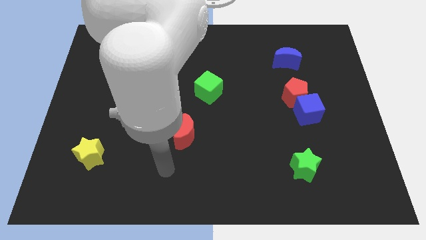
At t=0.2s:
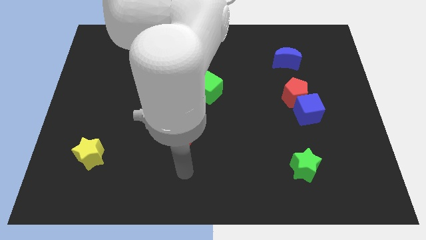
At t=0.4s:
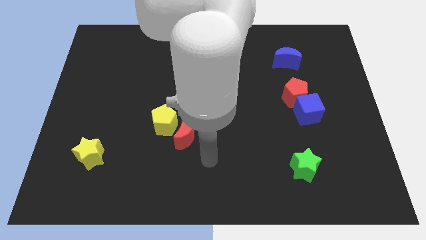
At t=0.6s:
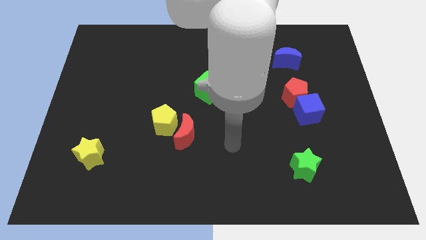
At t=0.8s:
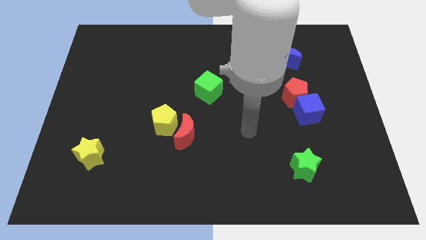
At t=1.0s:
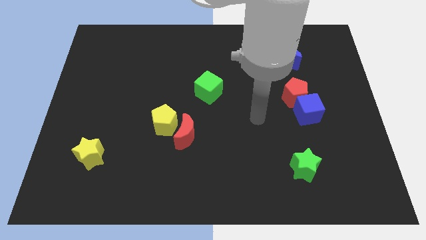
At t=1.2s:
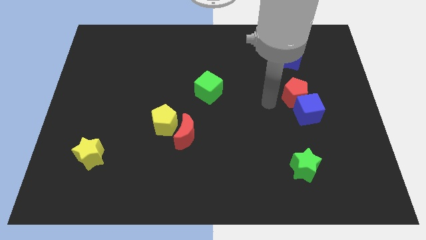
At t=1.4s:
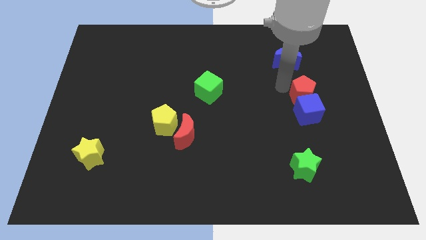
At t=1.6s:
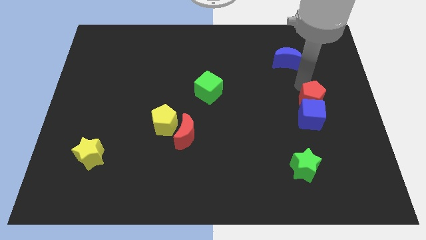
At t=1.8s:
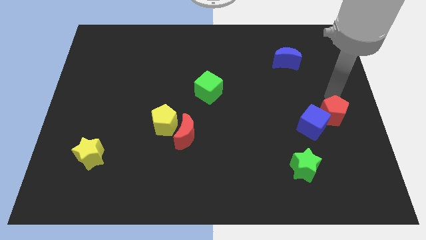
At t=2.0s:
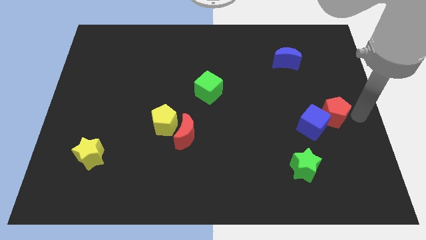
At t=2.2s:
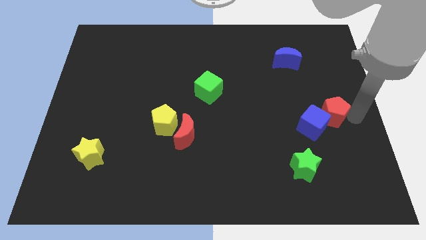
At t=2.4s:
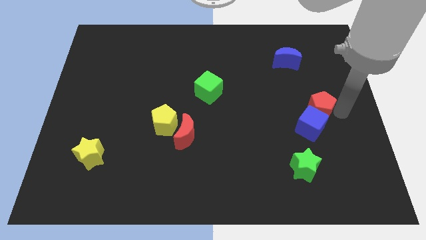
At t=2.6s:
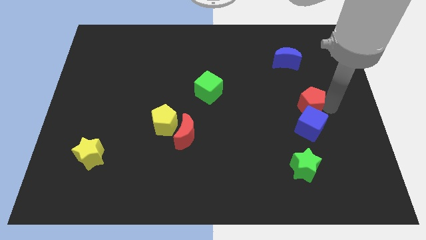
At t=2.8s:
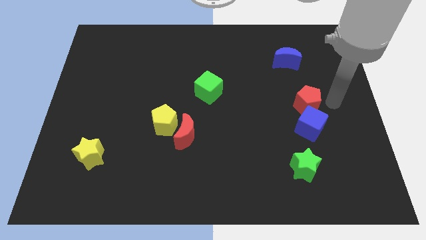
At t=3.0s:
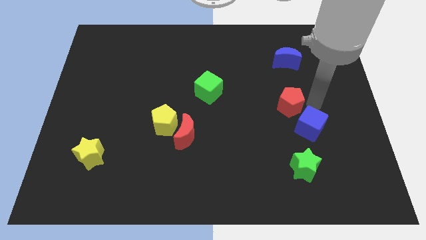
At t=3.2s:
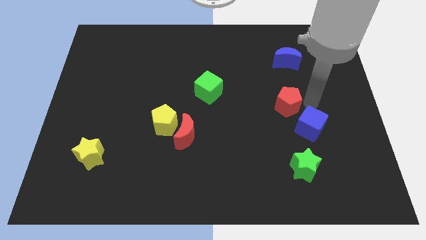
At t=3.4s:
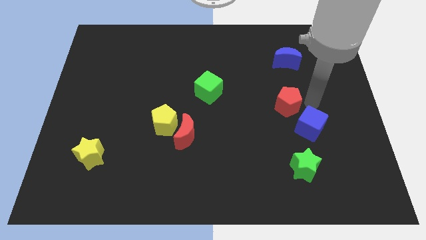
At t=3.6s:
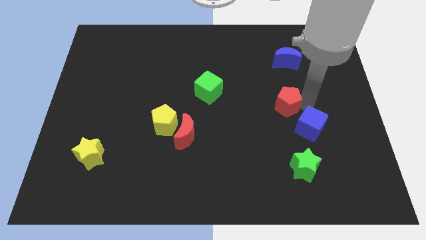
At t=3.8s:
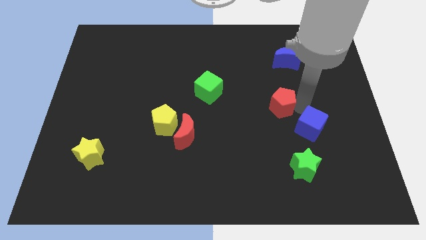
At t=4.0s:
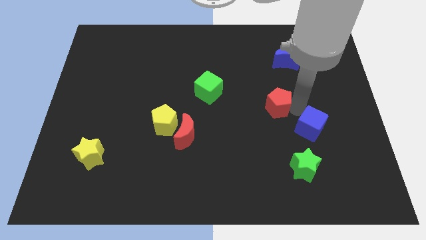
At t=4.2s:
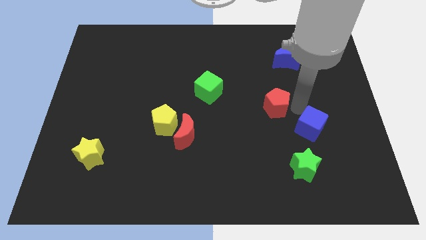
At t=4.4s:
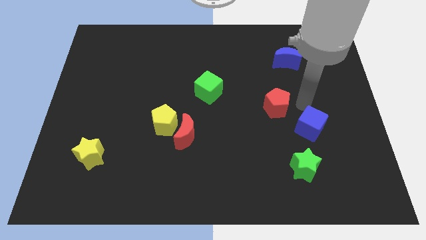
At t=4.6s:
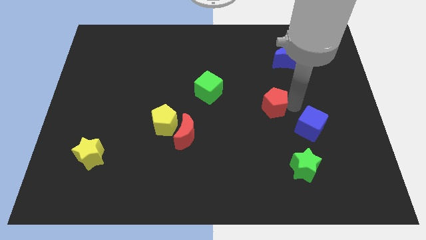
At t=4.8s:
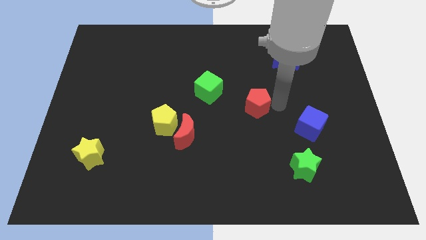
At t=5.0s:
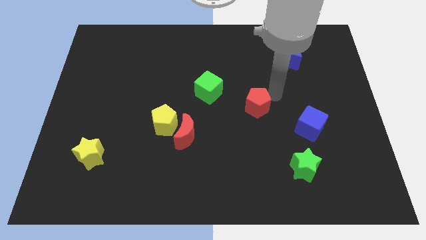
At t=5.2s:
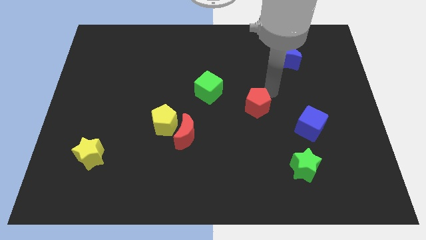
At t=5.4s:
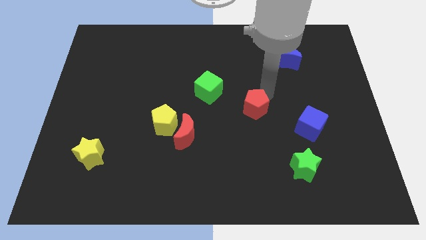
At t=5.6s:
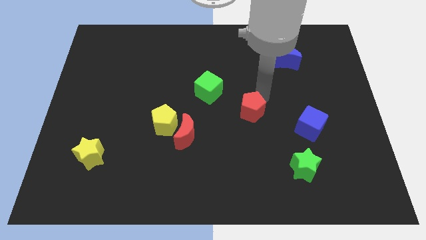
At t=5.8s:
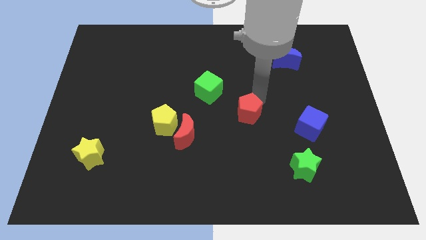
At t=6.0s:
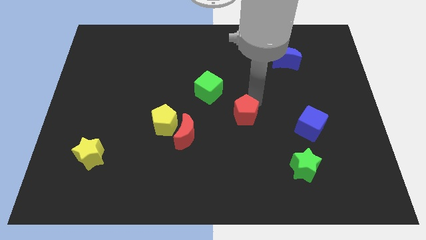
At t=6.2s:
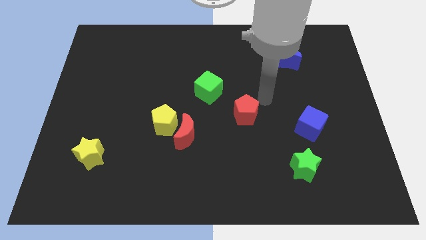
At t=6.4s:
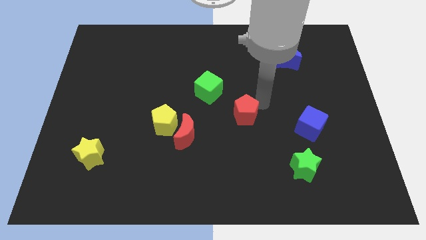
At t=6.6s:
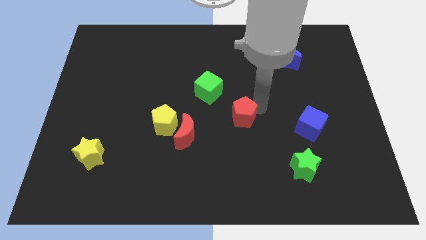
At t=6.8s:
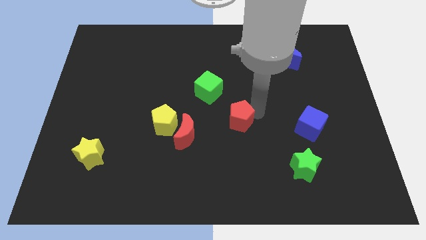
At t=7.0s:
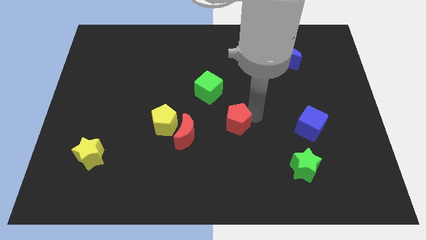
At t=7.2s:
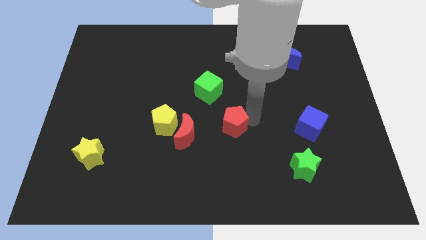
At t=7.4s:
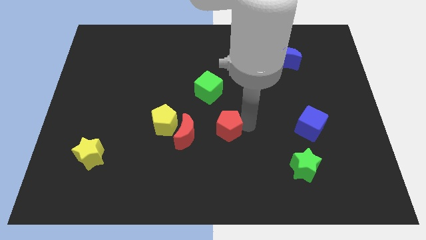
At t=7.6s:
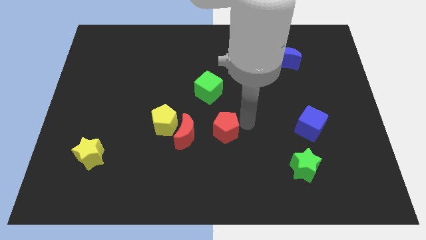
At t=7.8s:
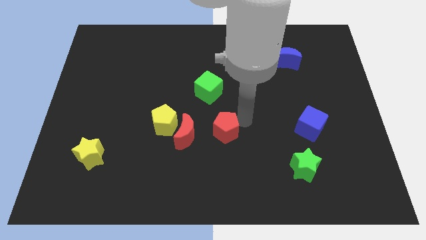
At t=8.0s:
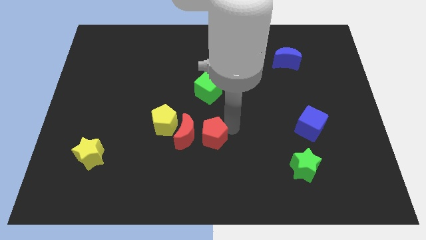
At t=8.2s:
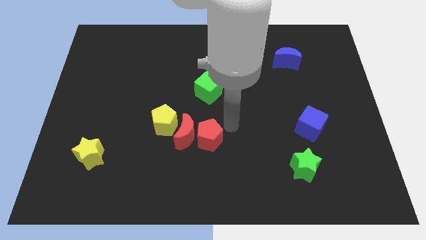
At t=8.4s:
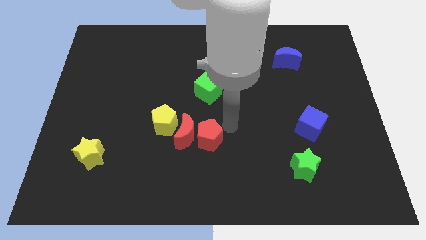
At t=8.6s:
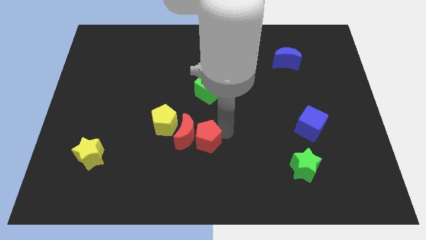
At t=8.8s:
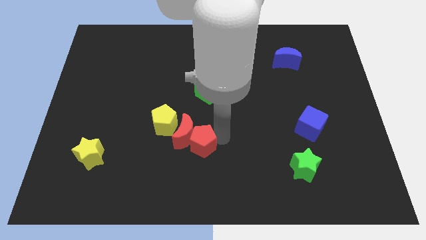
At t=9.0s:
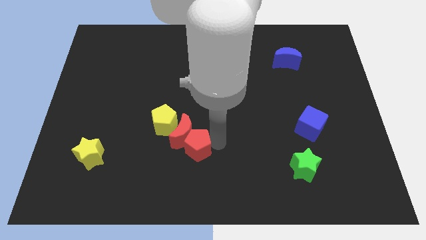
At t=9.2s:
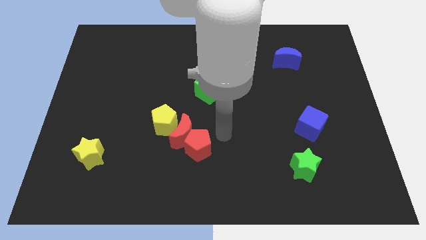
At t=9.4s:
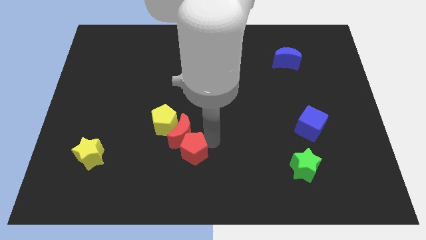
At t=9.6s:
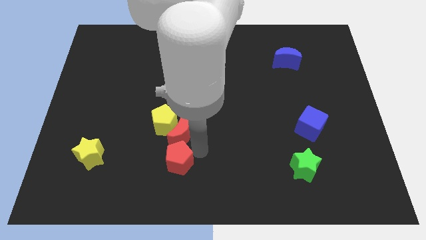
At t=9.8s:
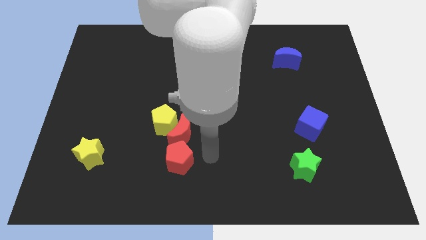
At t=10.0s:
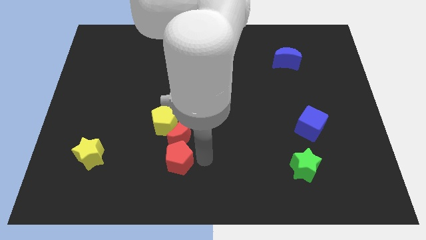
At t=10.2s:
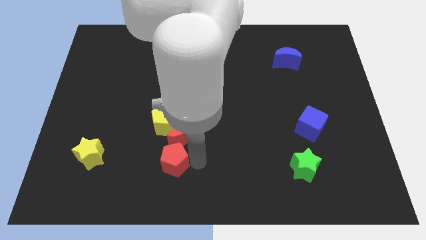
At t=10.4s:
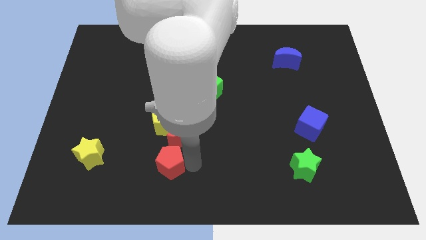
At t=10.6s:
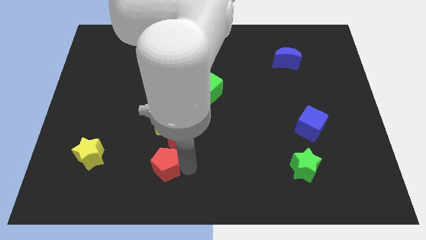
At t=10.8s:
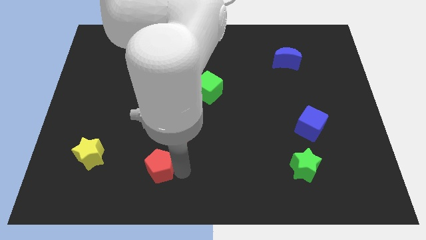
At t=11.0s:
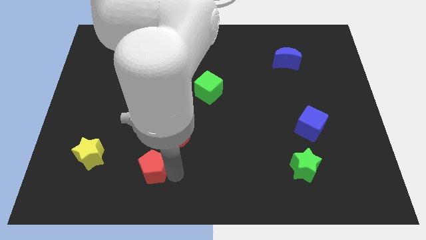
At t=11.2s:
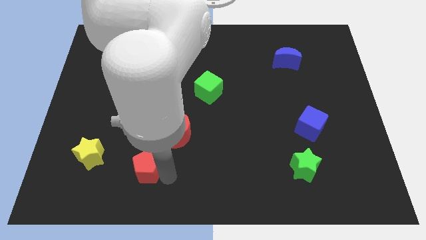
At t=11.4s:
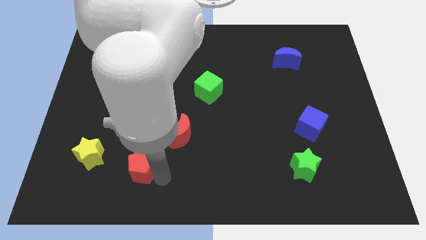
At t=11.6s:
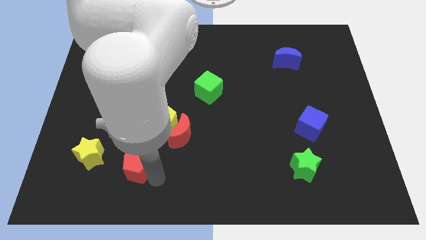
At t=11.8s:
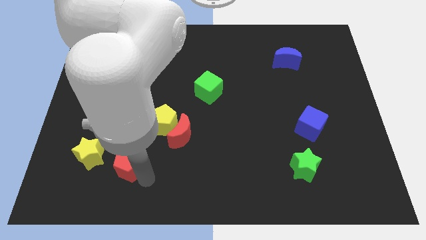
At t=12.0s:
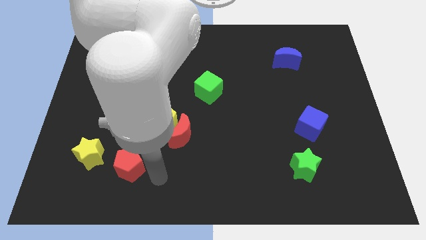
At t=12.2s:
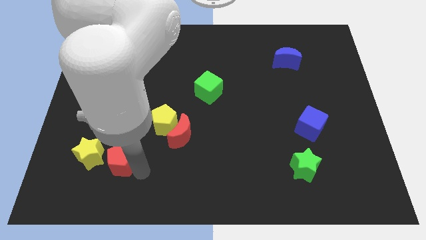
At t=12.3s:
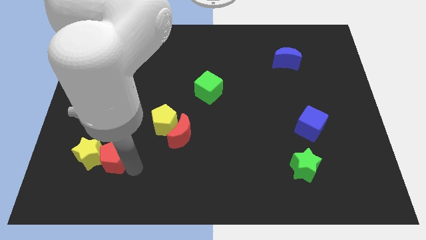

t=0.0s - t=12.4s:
move the red pentagon close to the yellow star
